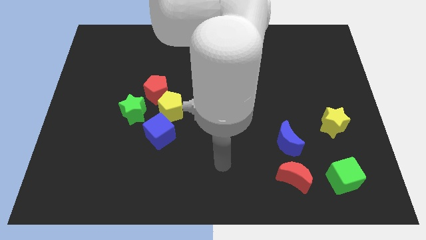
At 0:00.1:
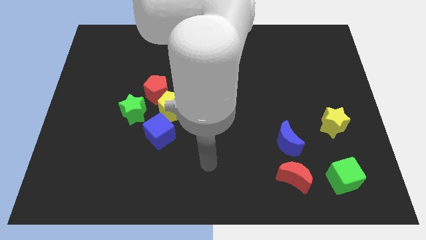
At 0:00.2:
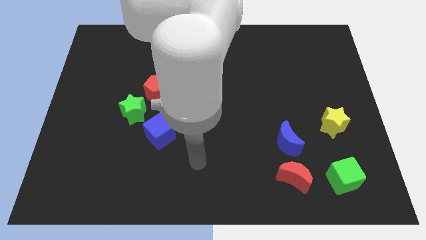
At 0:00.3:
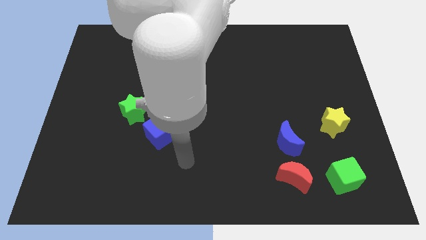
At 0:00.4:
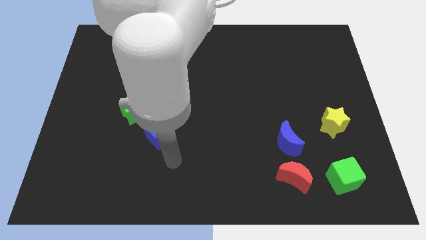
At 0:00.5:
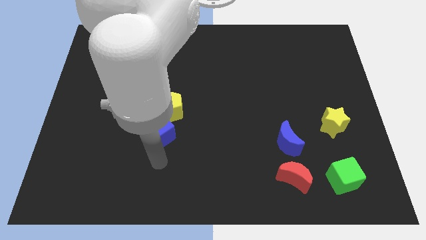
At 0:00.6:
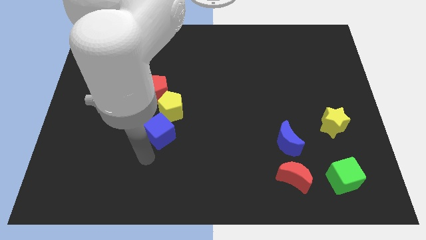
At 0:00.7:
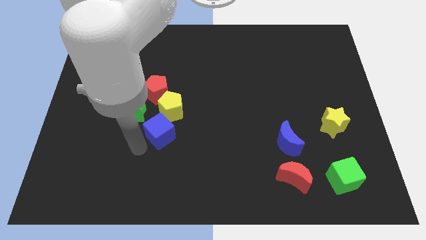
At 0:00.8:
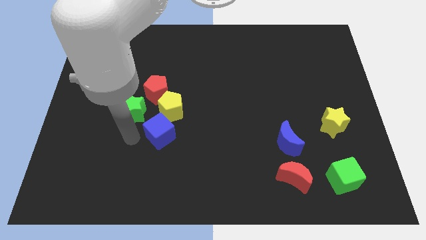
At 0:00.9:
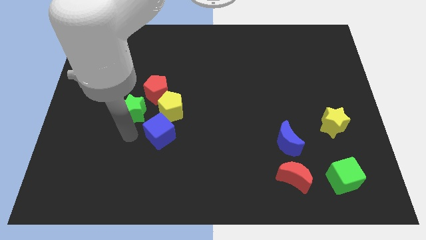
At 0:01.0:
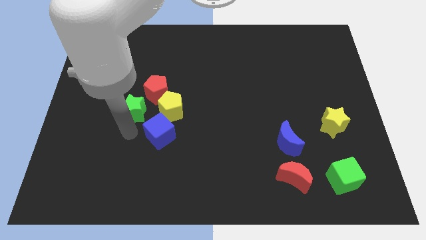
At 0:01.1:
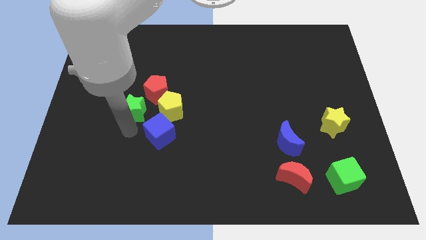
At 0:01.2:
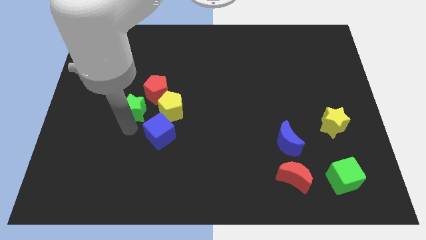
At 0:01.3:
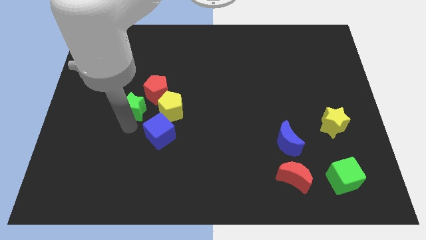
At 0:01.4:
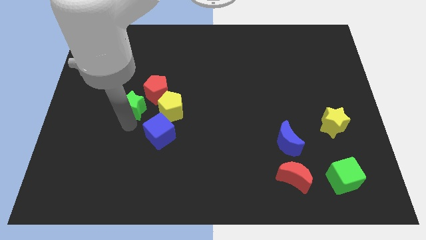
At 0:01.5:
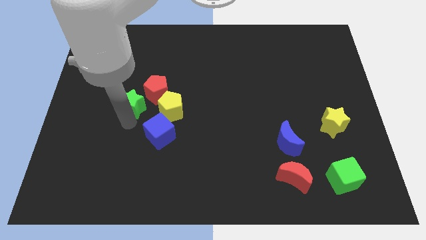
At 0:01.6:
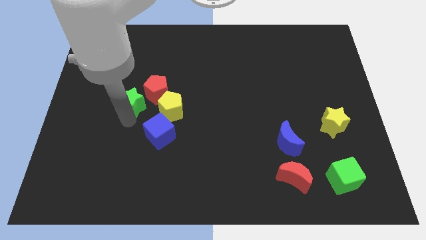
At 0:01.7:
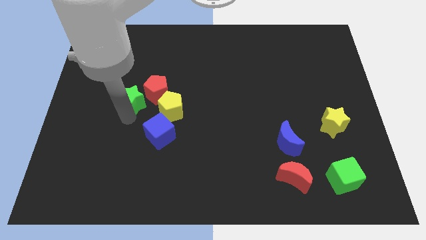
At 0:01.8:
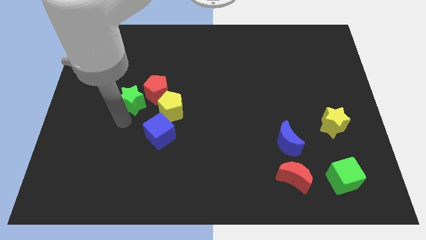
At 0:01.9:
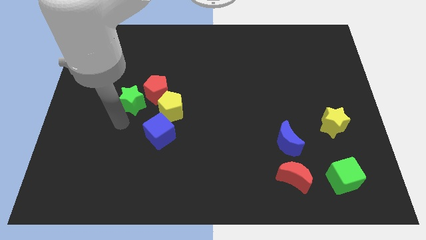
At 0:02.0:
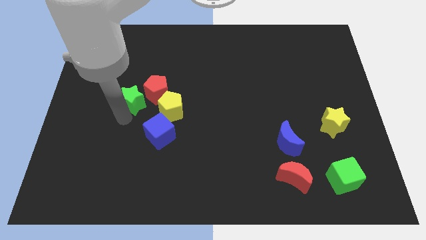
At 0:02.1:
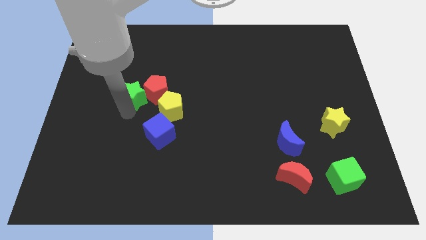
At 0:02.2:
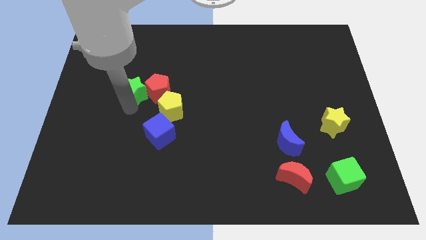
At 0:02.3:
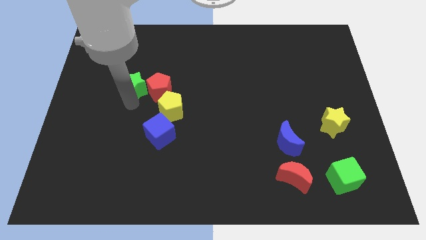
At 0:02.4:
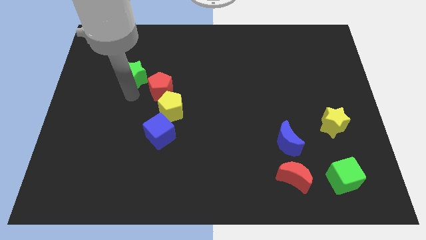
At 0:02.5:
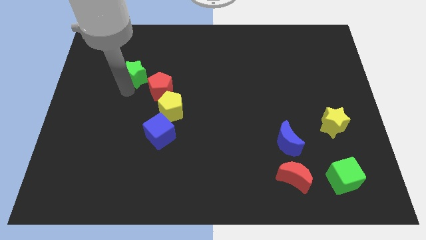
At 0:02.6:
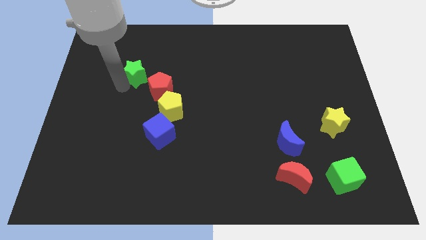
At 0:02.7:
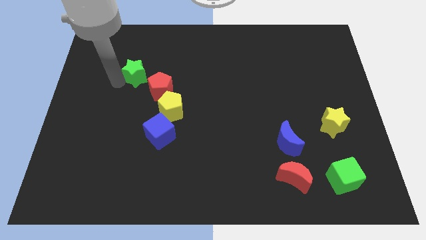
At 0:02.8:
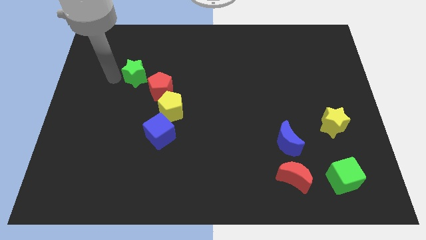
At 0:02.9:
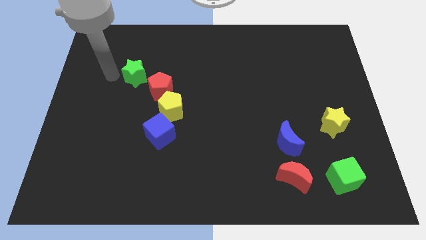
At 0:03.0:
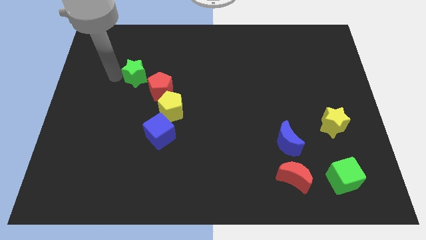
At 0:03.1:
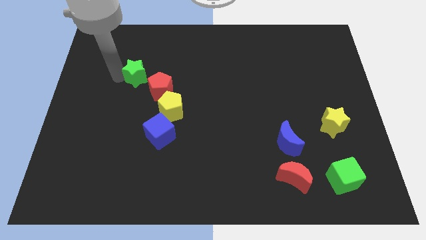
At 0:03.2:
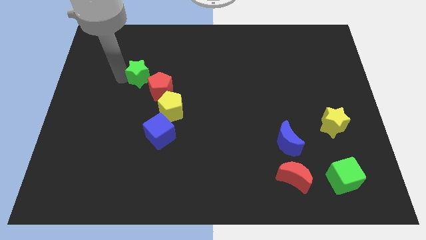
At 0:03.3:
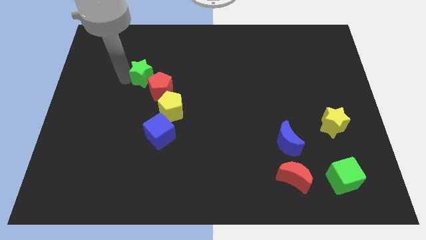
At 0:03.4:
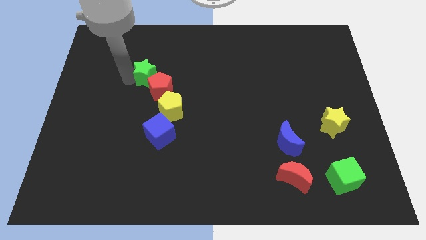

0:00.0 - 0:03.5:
slightly move the green star upwards and right

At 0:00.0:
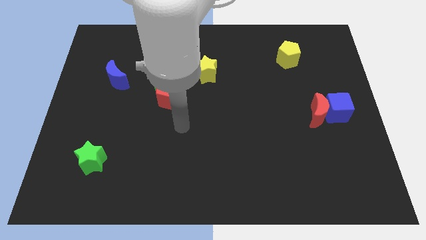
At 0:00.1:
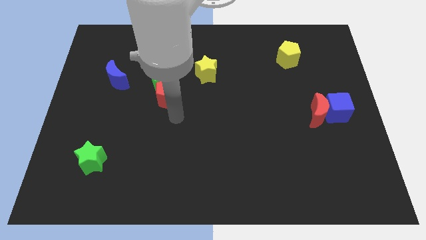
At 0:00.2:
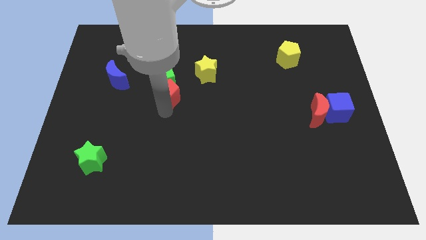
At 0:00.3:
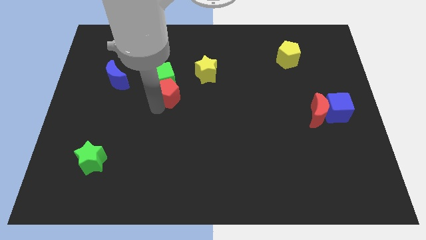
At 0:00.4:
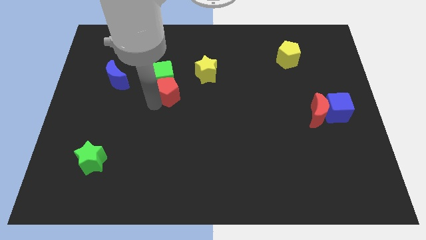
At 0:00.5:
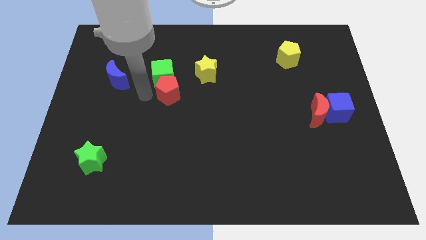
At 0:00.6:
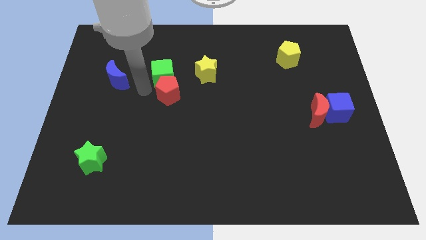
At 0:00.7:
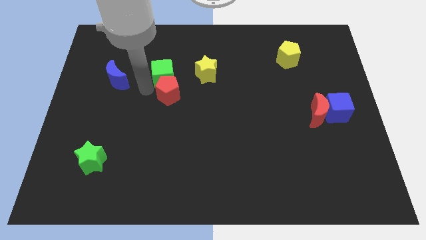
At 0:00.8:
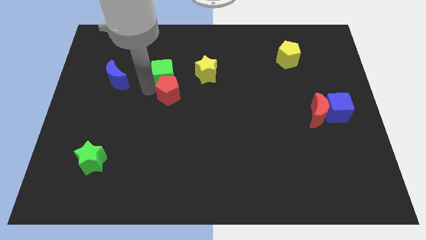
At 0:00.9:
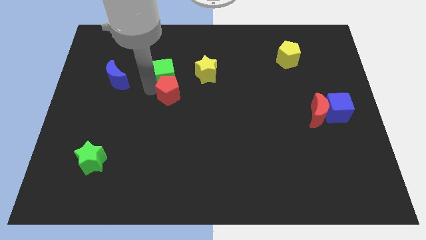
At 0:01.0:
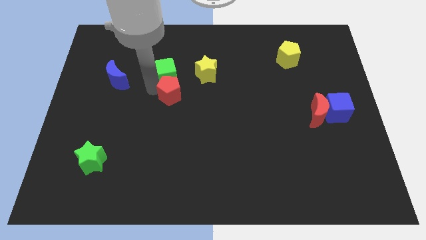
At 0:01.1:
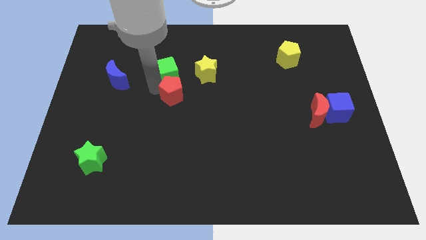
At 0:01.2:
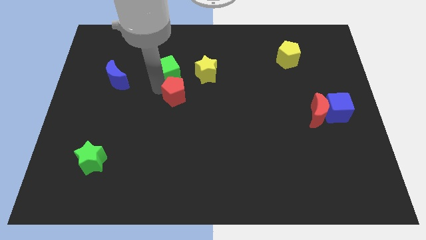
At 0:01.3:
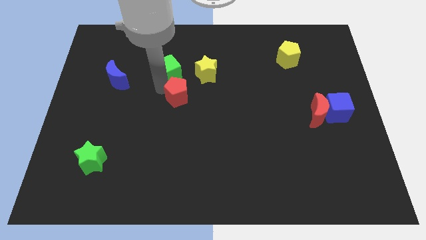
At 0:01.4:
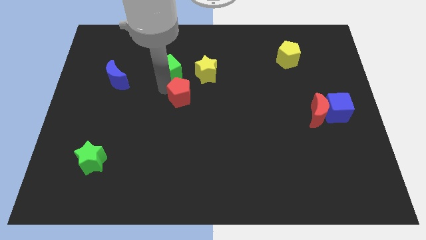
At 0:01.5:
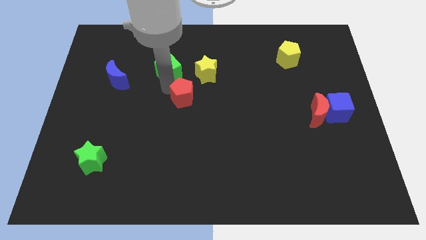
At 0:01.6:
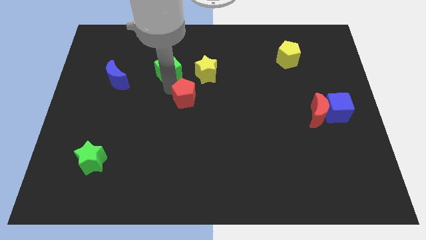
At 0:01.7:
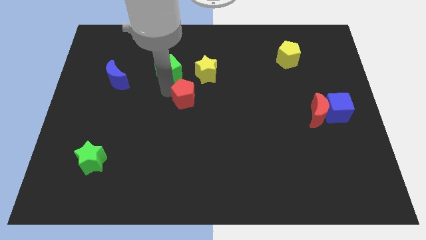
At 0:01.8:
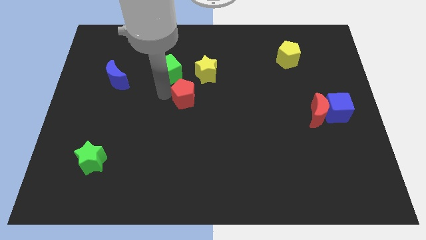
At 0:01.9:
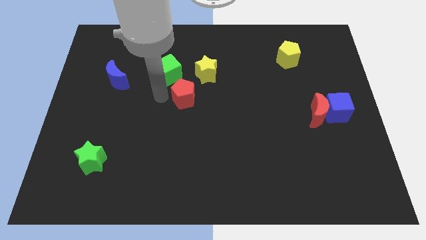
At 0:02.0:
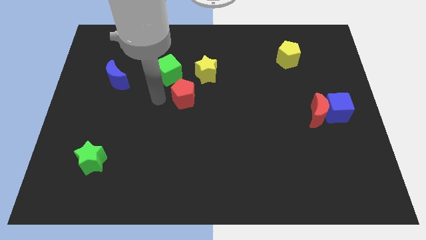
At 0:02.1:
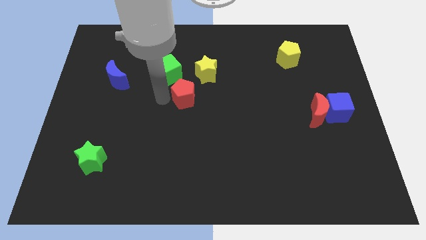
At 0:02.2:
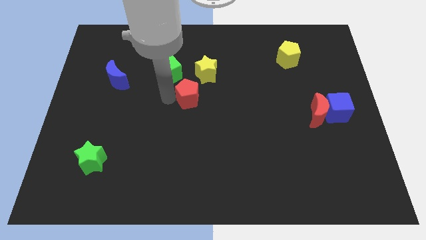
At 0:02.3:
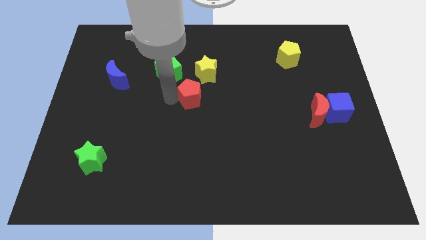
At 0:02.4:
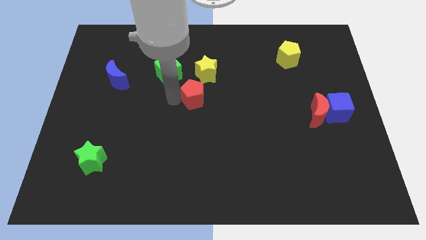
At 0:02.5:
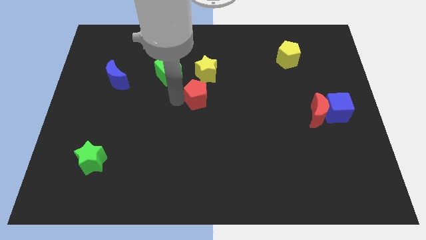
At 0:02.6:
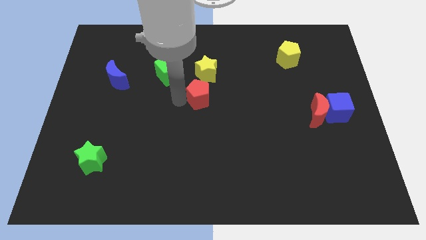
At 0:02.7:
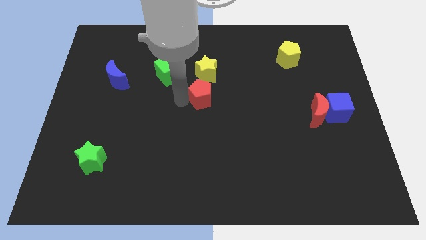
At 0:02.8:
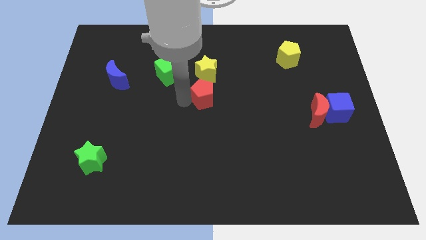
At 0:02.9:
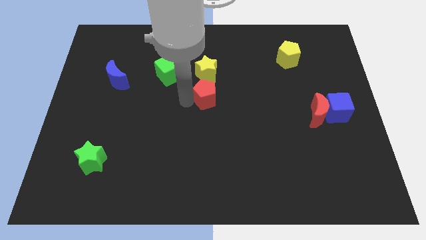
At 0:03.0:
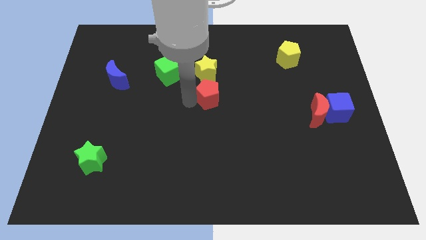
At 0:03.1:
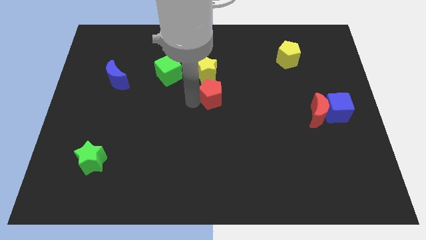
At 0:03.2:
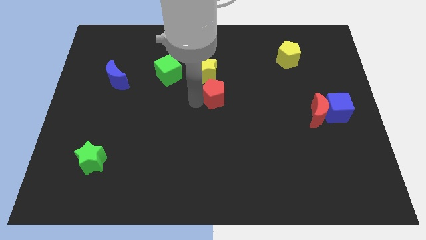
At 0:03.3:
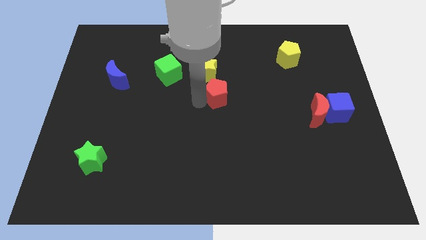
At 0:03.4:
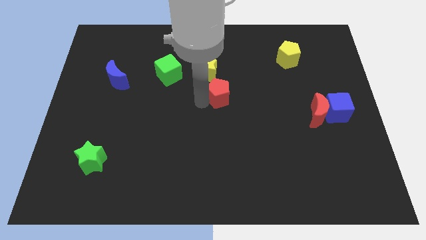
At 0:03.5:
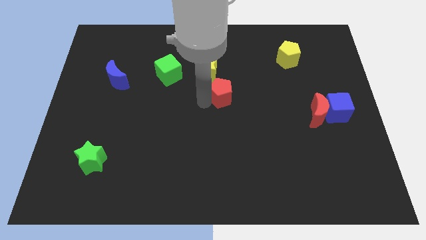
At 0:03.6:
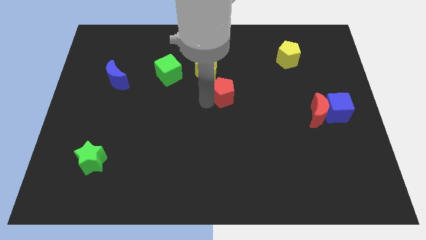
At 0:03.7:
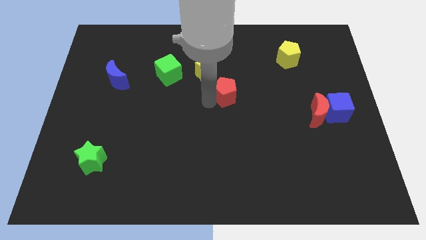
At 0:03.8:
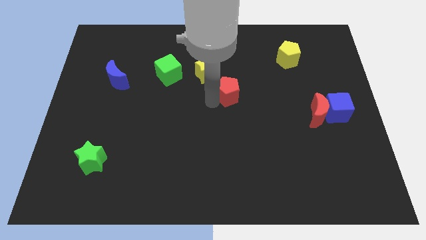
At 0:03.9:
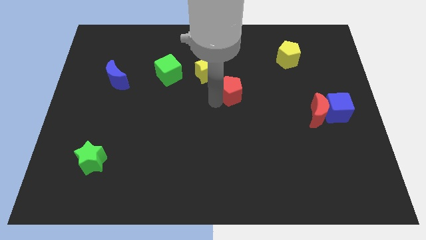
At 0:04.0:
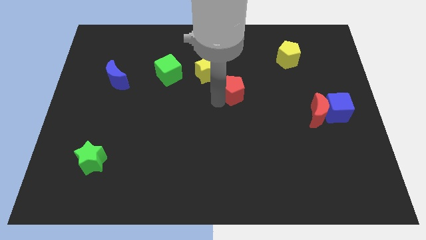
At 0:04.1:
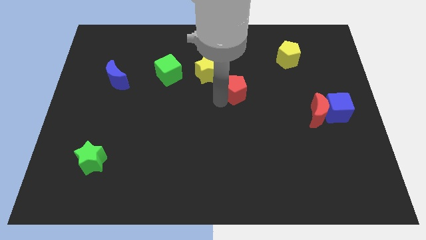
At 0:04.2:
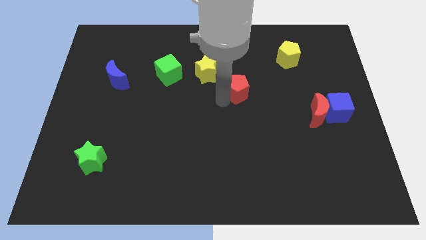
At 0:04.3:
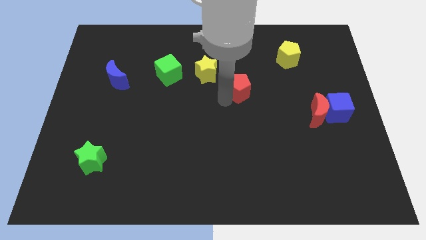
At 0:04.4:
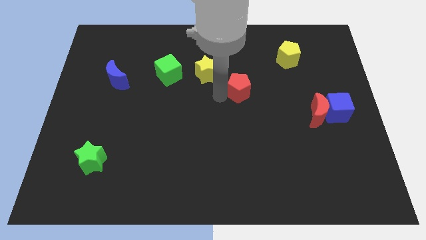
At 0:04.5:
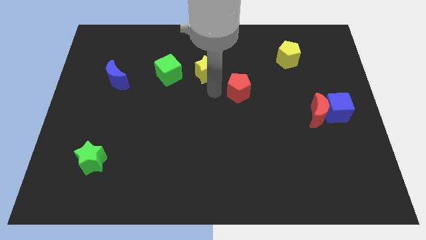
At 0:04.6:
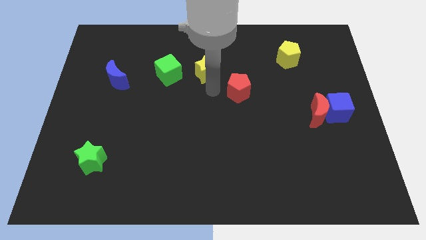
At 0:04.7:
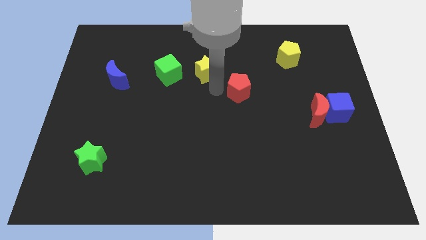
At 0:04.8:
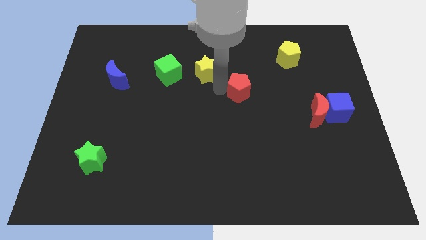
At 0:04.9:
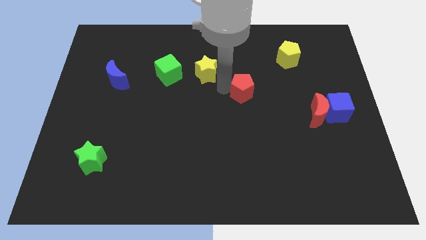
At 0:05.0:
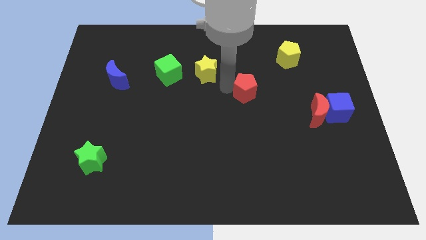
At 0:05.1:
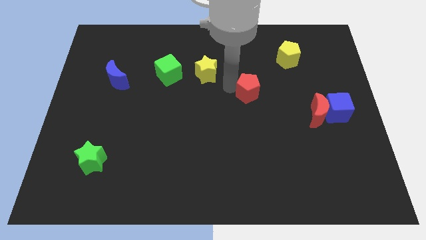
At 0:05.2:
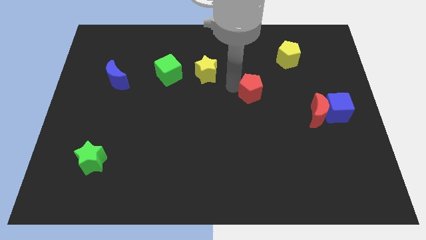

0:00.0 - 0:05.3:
push the red pentagon right
